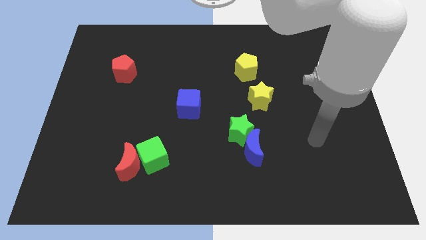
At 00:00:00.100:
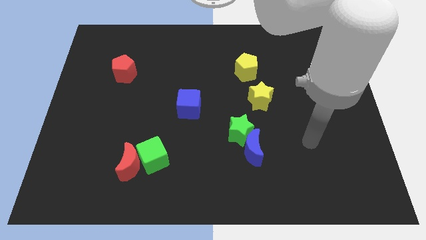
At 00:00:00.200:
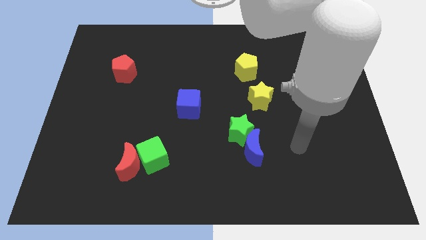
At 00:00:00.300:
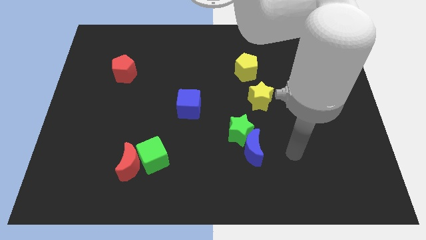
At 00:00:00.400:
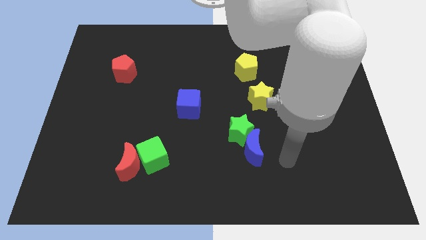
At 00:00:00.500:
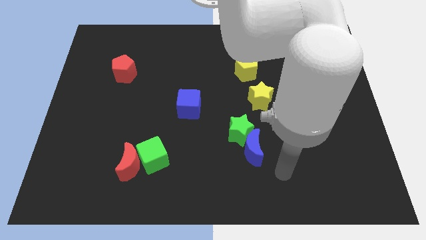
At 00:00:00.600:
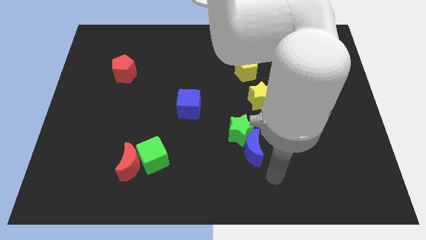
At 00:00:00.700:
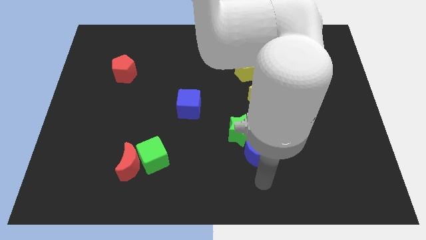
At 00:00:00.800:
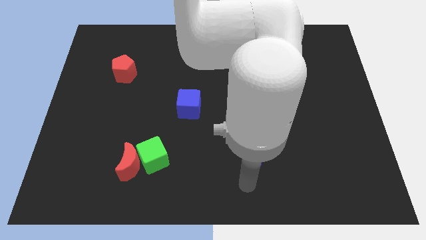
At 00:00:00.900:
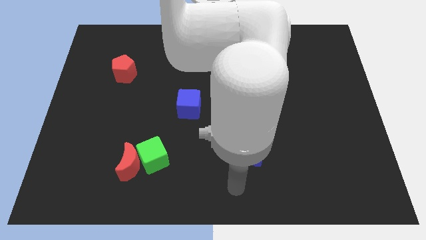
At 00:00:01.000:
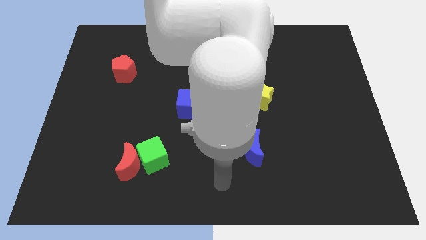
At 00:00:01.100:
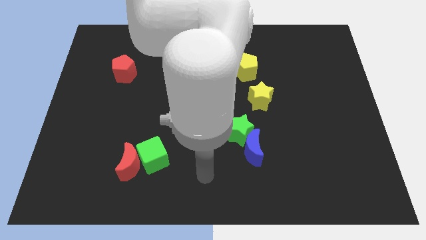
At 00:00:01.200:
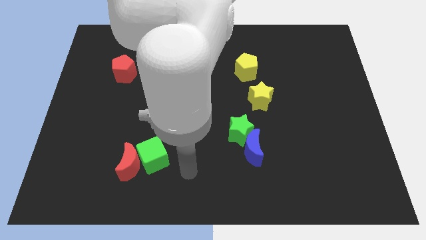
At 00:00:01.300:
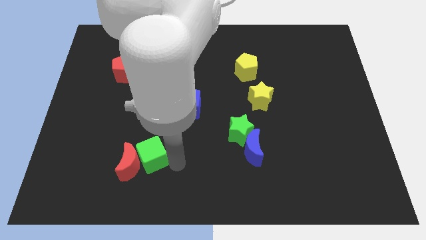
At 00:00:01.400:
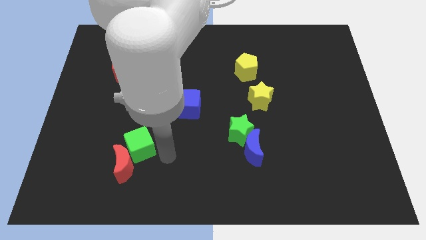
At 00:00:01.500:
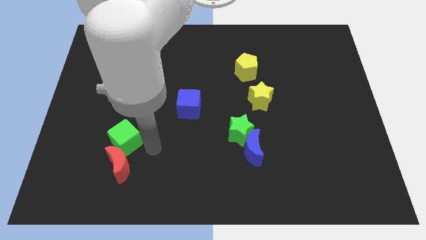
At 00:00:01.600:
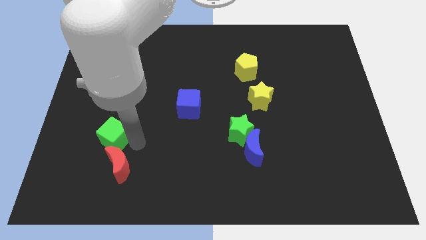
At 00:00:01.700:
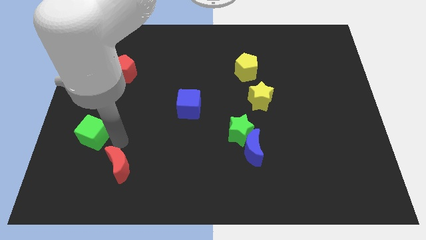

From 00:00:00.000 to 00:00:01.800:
move the red moon away from the green cube

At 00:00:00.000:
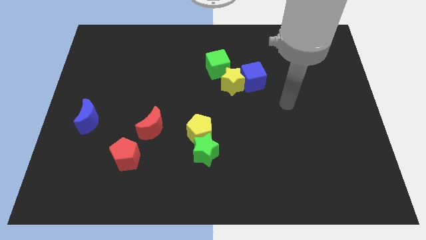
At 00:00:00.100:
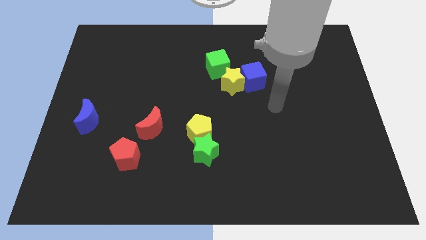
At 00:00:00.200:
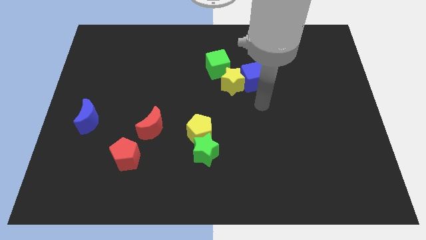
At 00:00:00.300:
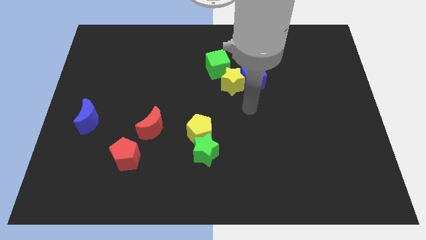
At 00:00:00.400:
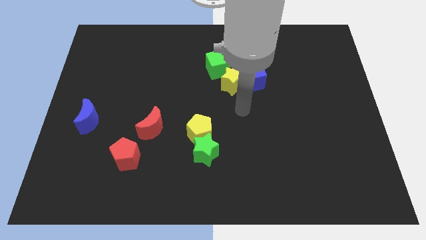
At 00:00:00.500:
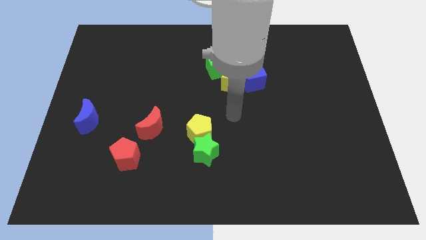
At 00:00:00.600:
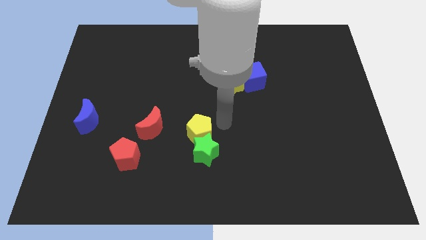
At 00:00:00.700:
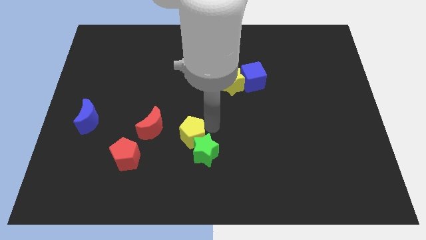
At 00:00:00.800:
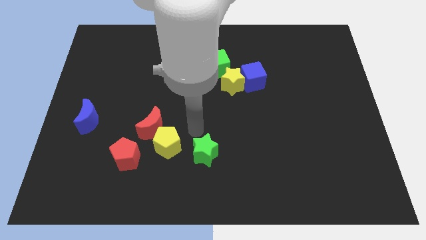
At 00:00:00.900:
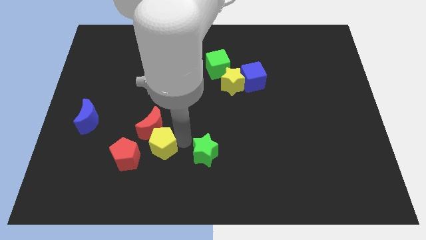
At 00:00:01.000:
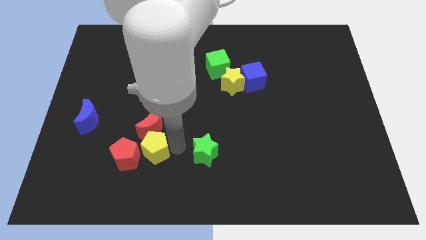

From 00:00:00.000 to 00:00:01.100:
move the green star away from the yellow pentagon

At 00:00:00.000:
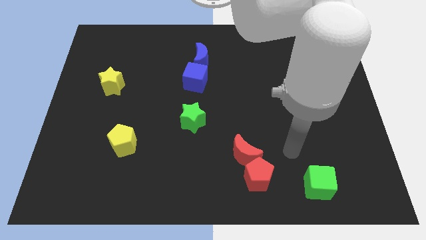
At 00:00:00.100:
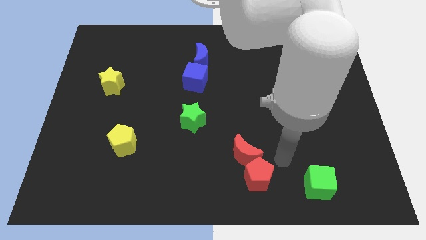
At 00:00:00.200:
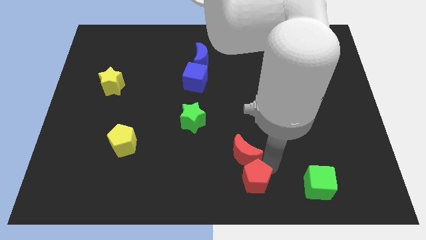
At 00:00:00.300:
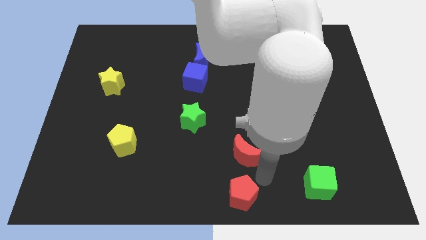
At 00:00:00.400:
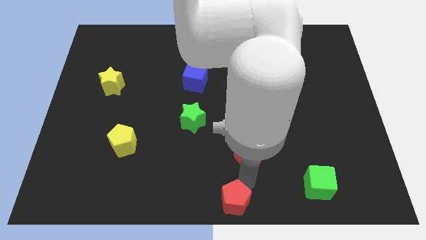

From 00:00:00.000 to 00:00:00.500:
pull the red moon apart from the red pentagon

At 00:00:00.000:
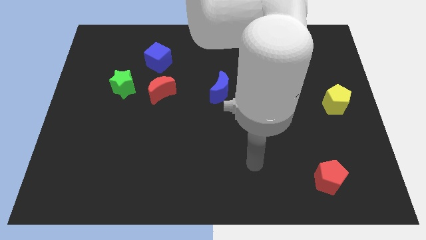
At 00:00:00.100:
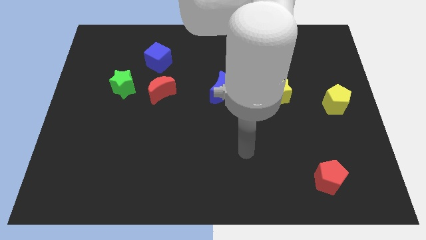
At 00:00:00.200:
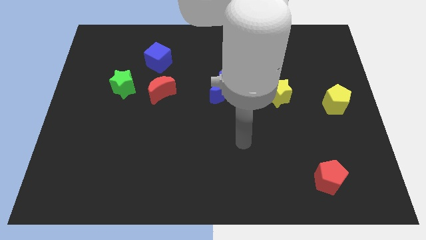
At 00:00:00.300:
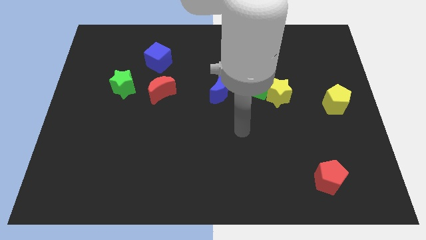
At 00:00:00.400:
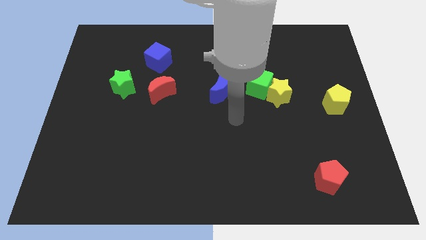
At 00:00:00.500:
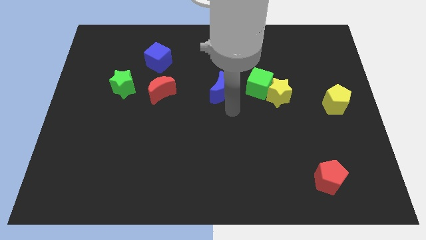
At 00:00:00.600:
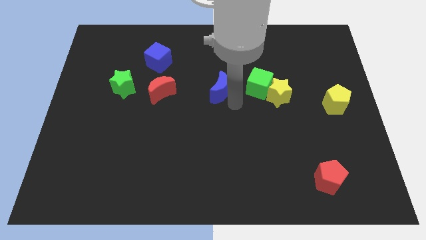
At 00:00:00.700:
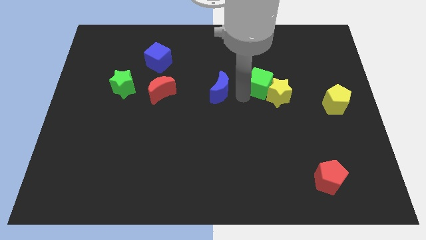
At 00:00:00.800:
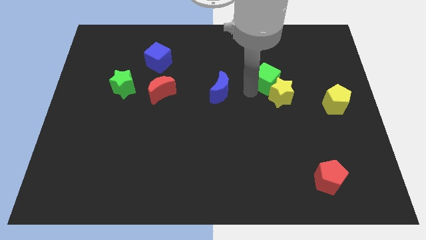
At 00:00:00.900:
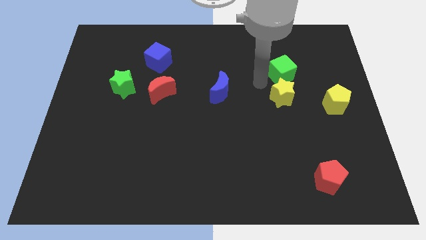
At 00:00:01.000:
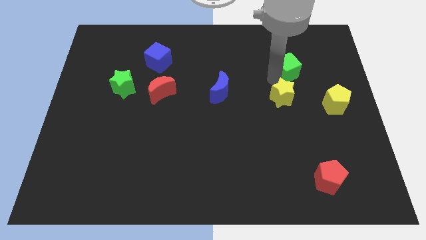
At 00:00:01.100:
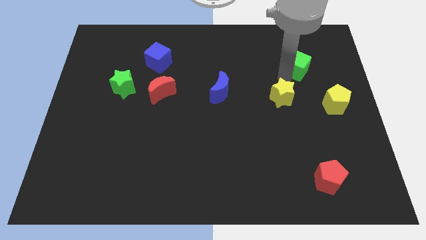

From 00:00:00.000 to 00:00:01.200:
separate the yellow star from the green cube

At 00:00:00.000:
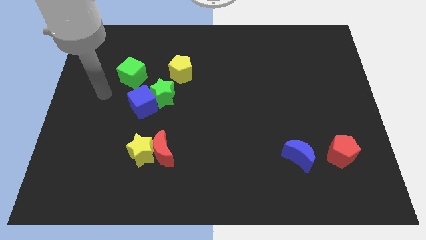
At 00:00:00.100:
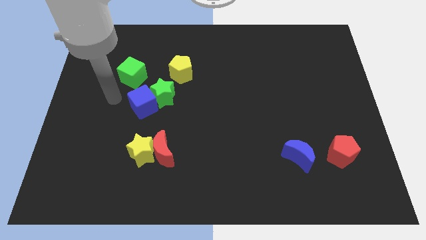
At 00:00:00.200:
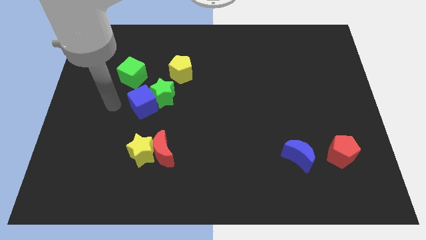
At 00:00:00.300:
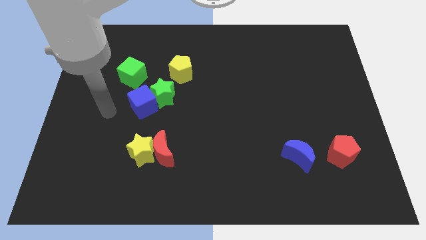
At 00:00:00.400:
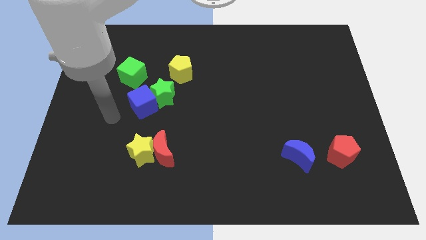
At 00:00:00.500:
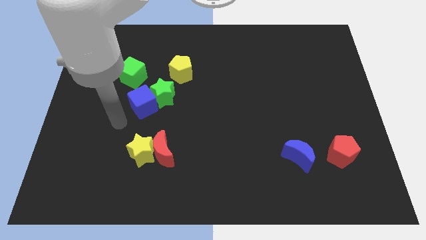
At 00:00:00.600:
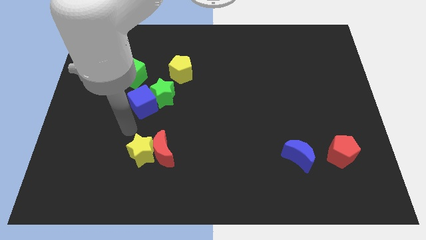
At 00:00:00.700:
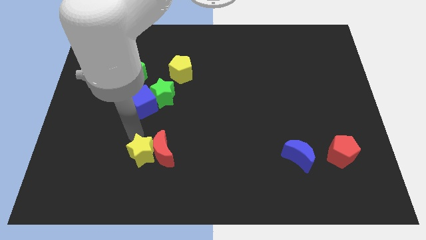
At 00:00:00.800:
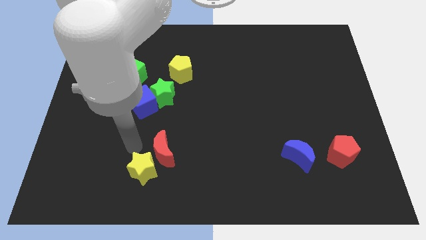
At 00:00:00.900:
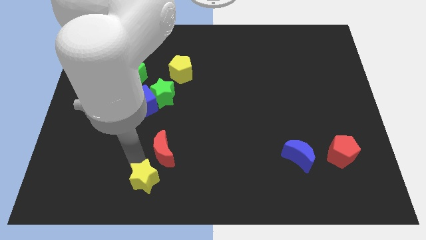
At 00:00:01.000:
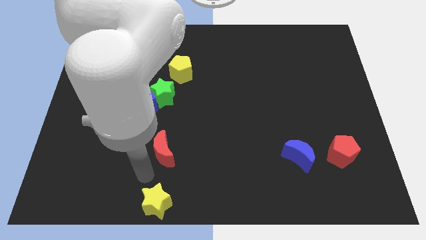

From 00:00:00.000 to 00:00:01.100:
pull the red moon apart from the yellow star

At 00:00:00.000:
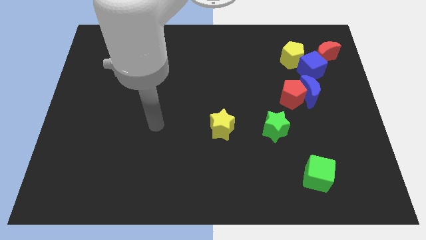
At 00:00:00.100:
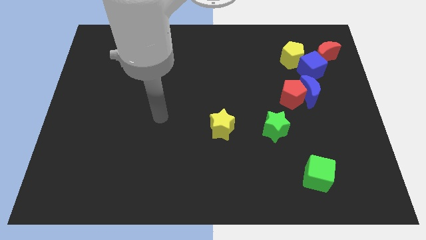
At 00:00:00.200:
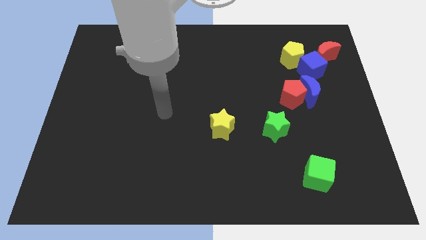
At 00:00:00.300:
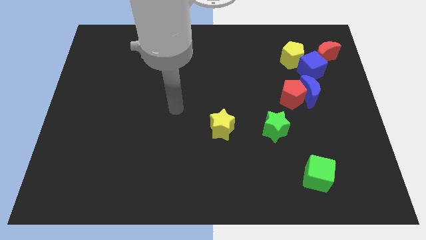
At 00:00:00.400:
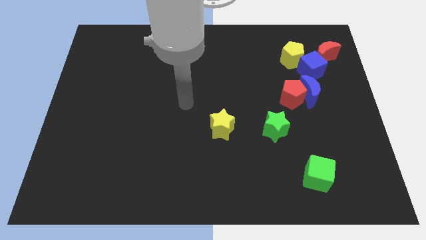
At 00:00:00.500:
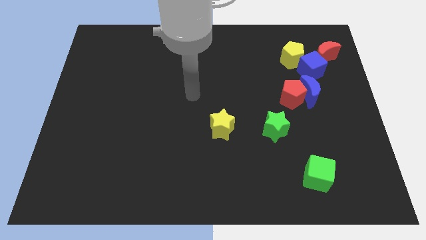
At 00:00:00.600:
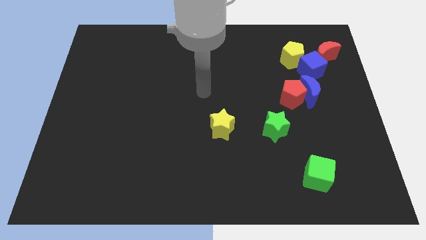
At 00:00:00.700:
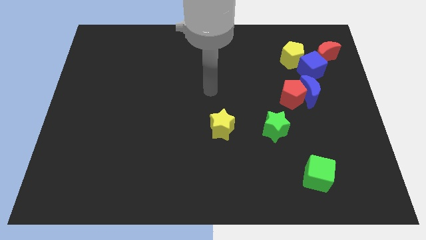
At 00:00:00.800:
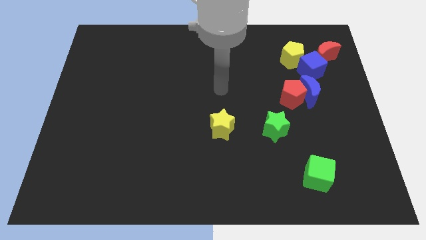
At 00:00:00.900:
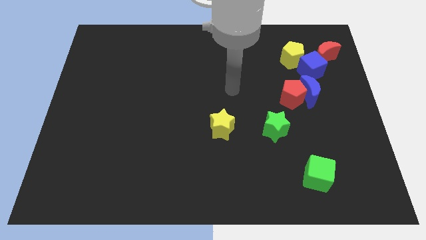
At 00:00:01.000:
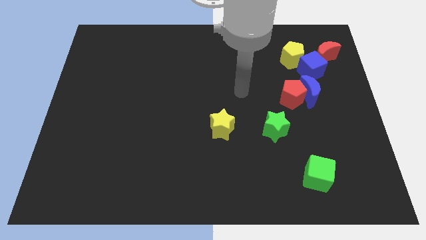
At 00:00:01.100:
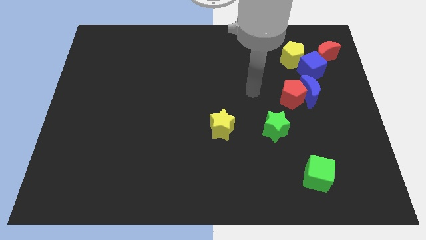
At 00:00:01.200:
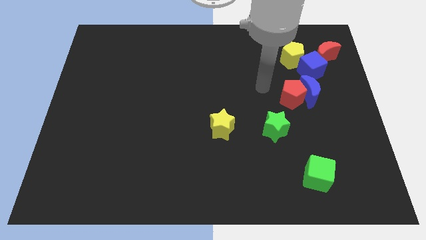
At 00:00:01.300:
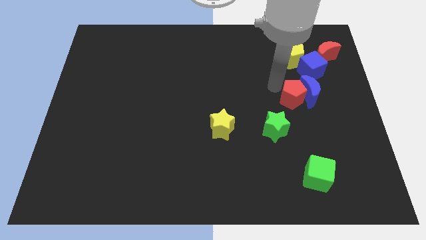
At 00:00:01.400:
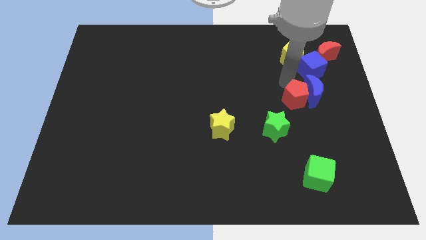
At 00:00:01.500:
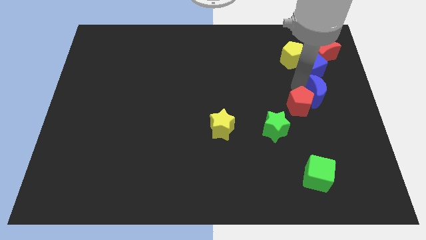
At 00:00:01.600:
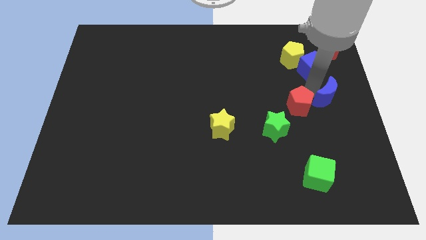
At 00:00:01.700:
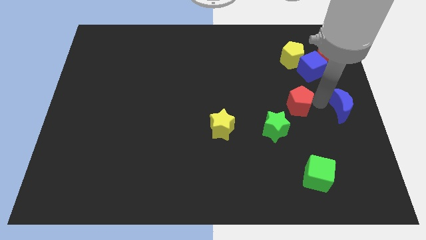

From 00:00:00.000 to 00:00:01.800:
separate the red pentagon from the blue moon

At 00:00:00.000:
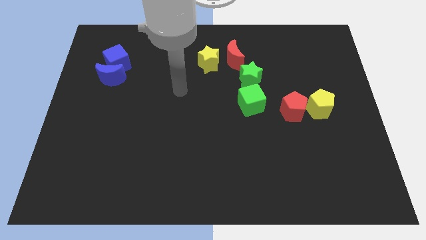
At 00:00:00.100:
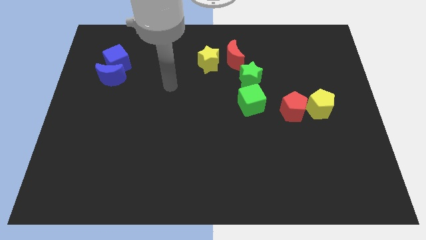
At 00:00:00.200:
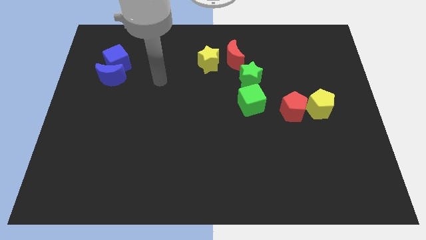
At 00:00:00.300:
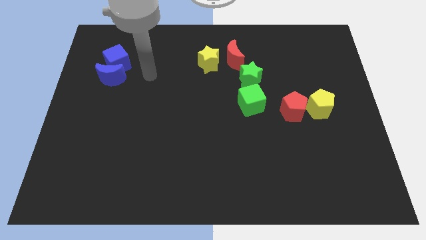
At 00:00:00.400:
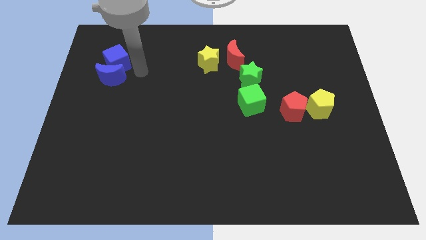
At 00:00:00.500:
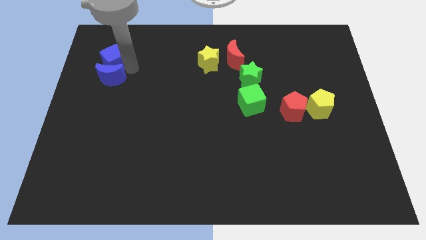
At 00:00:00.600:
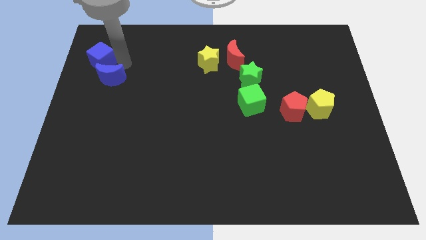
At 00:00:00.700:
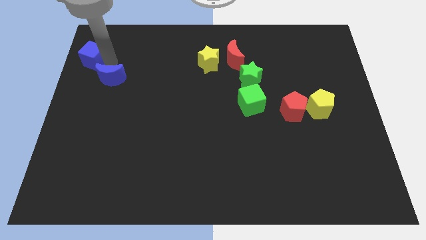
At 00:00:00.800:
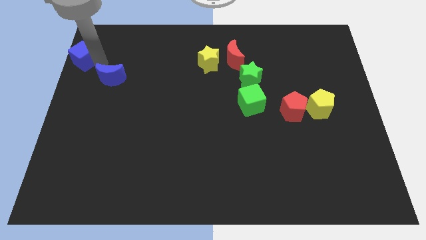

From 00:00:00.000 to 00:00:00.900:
move the blue moon away from the blue cube

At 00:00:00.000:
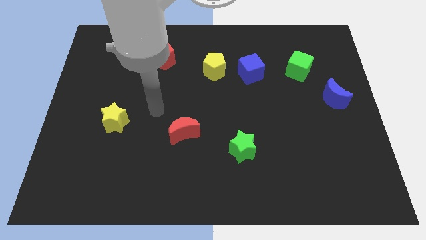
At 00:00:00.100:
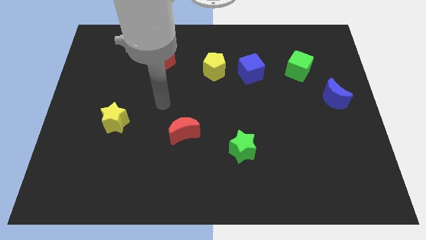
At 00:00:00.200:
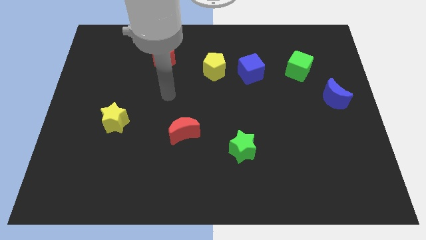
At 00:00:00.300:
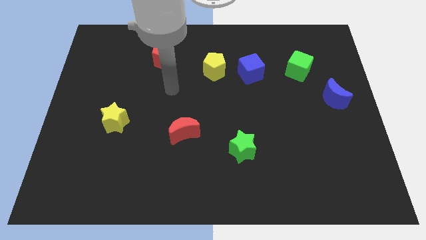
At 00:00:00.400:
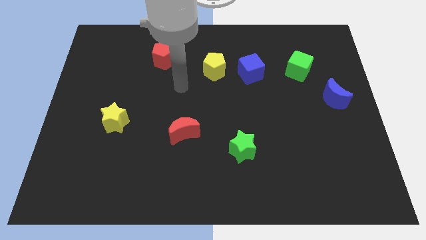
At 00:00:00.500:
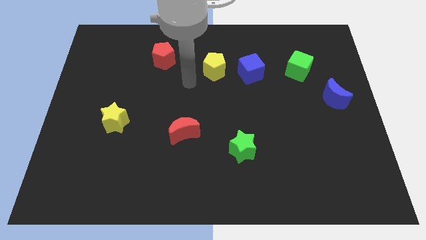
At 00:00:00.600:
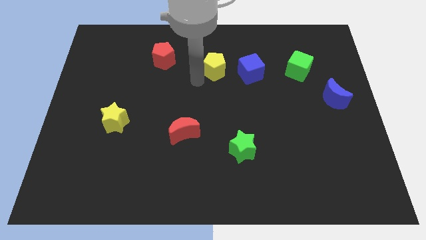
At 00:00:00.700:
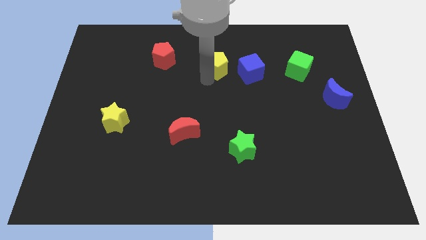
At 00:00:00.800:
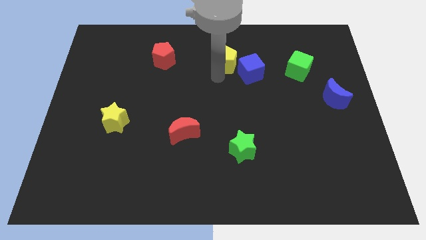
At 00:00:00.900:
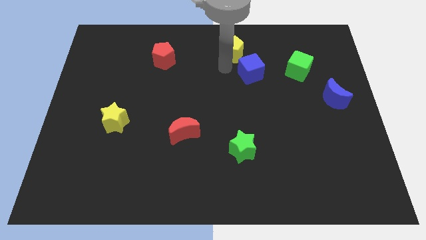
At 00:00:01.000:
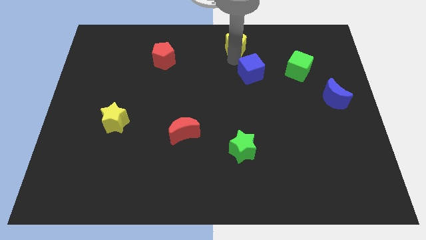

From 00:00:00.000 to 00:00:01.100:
pull the blue cube apart from the yellow pentagon
